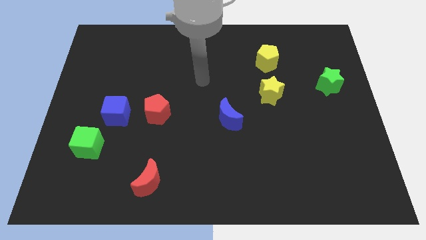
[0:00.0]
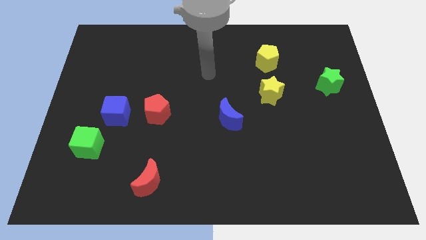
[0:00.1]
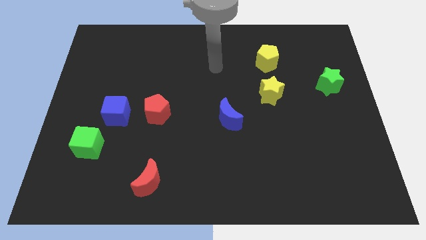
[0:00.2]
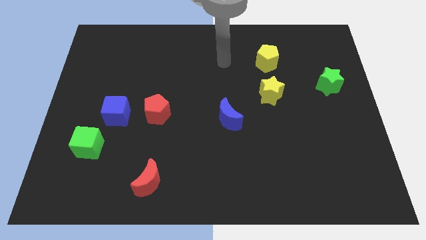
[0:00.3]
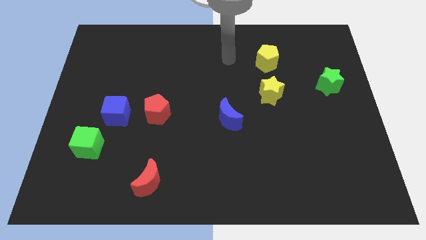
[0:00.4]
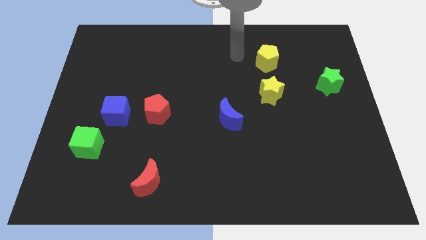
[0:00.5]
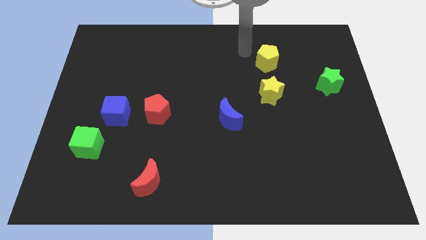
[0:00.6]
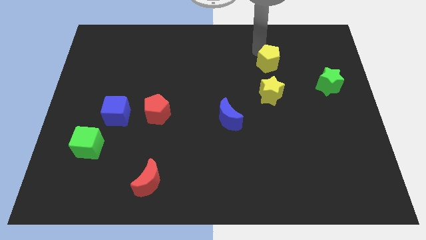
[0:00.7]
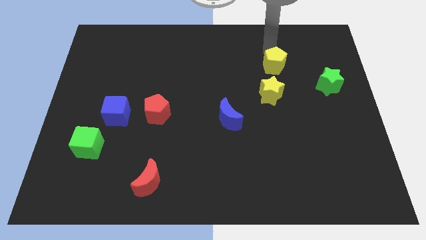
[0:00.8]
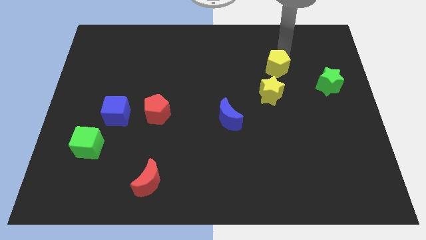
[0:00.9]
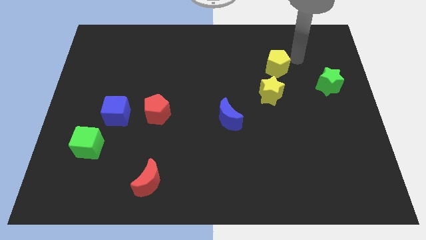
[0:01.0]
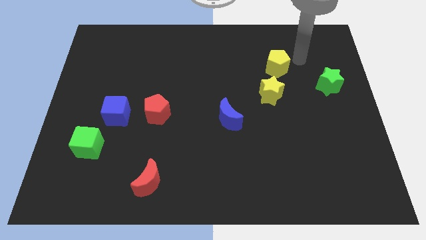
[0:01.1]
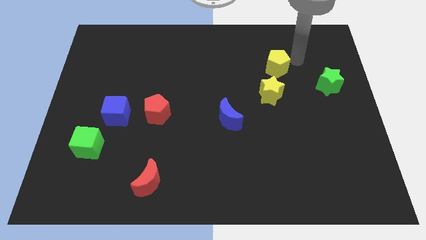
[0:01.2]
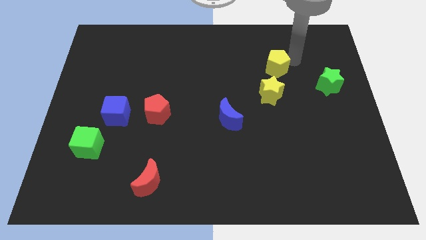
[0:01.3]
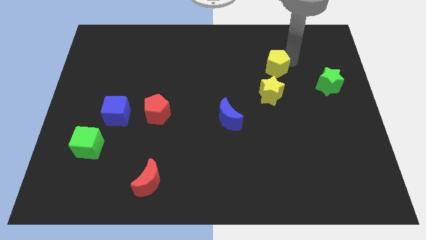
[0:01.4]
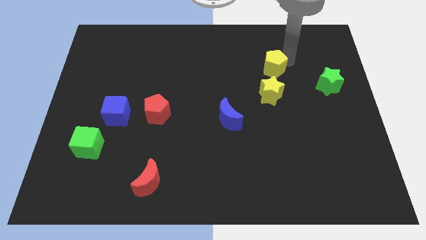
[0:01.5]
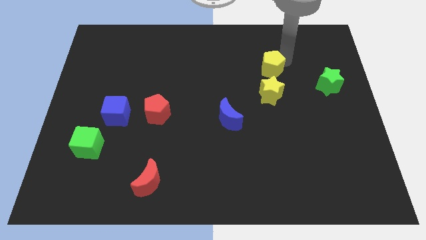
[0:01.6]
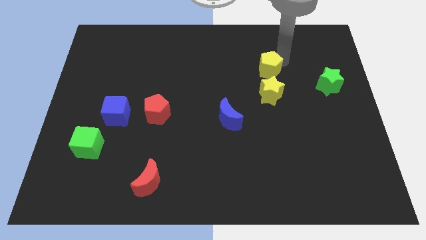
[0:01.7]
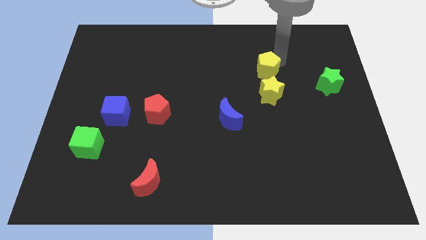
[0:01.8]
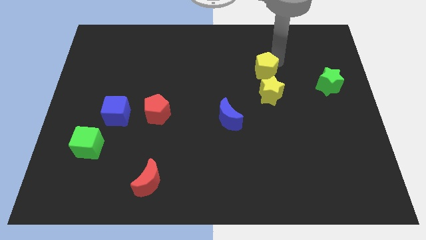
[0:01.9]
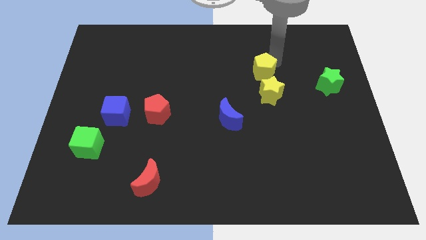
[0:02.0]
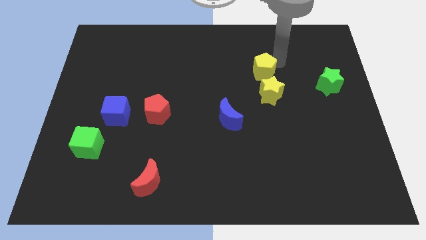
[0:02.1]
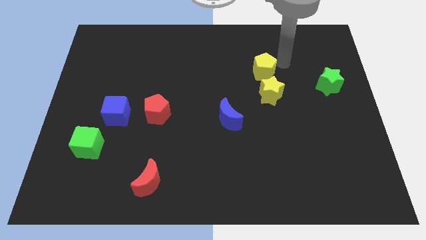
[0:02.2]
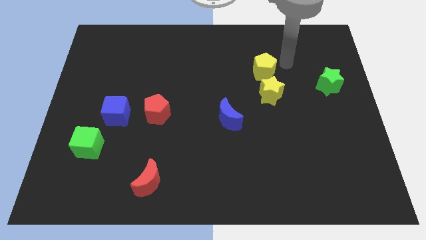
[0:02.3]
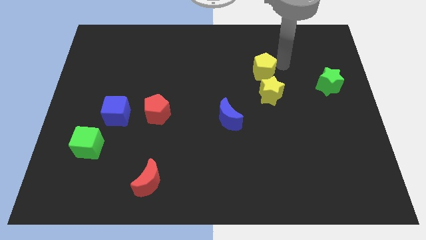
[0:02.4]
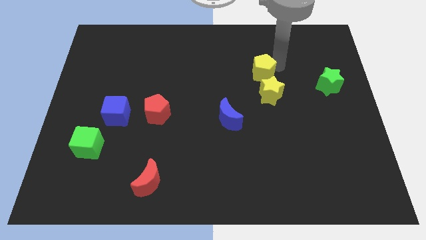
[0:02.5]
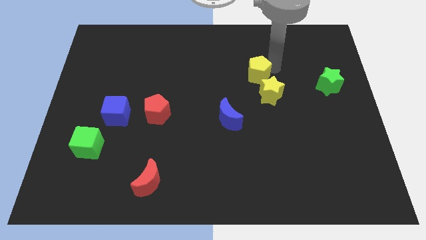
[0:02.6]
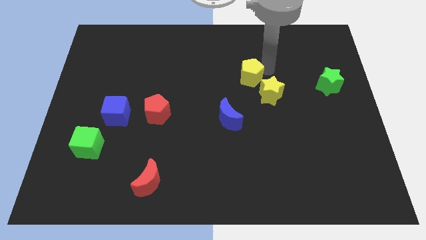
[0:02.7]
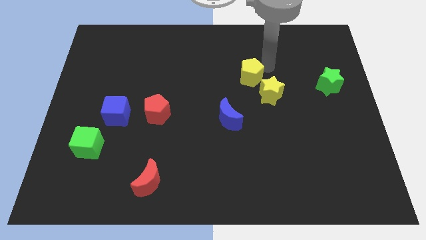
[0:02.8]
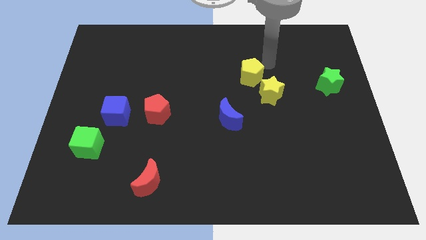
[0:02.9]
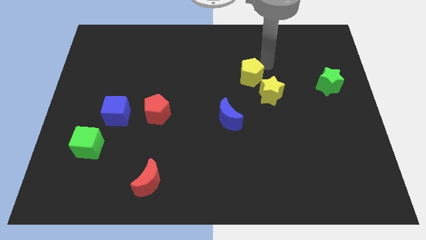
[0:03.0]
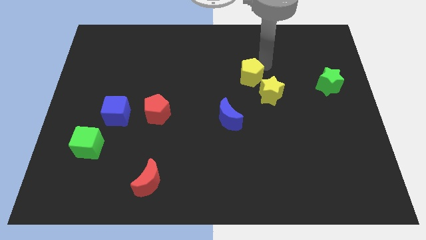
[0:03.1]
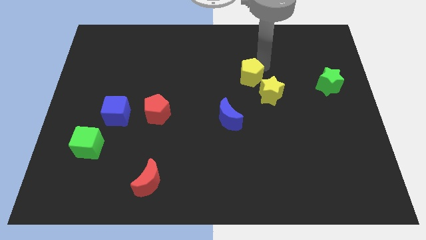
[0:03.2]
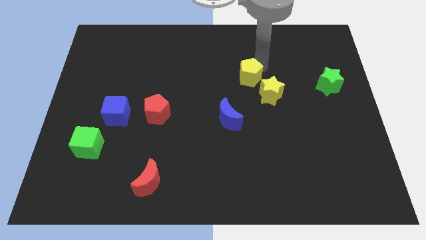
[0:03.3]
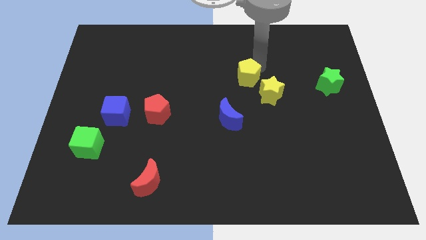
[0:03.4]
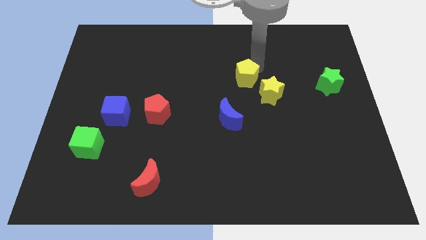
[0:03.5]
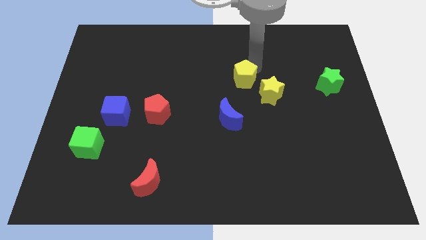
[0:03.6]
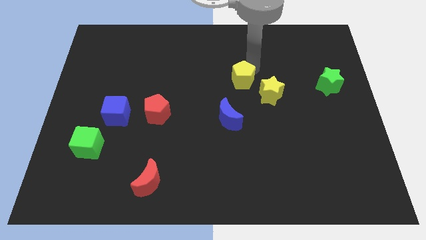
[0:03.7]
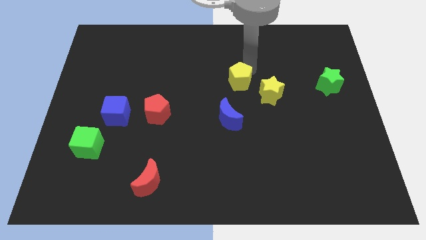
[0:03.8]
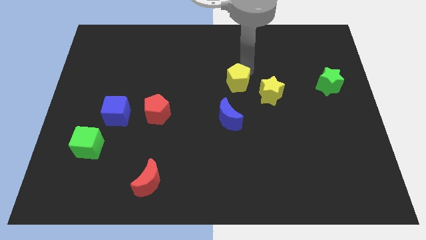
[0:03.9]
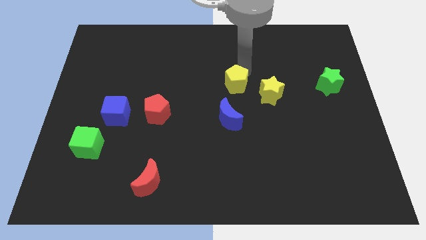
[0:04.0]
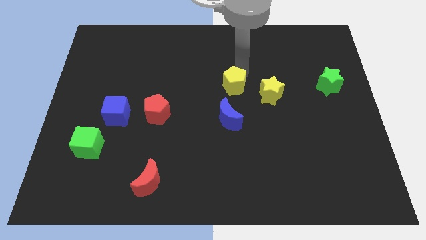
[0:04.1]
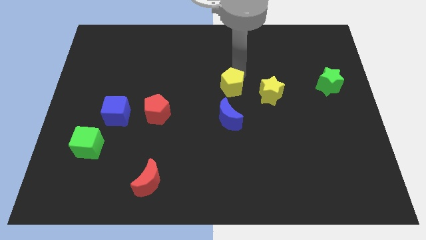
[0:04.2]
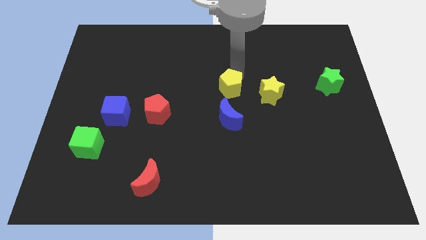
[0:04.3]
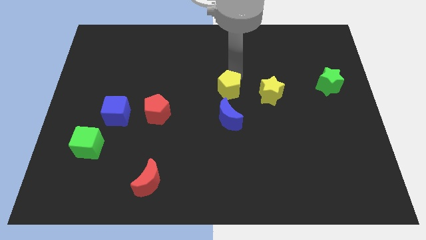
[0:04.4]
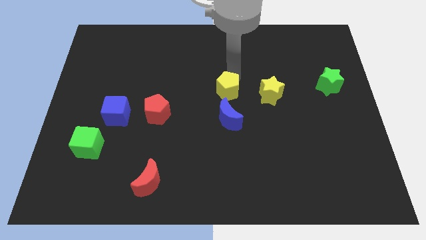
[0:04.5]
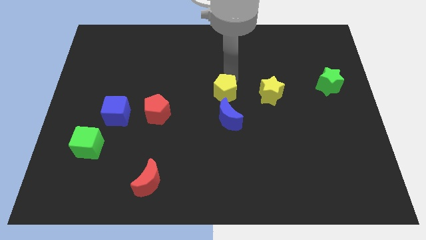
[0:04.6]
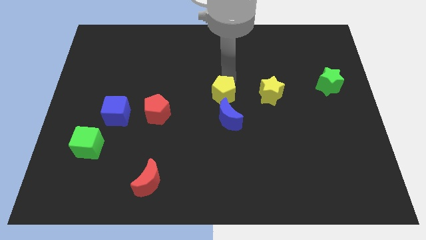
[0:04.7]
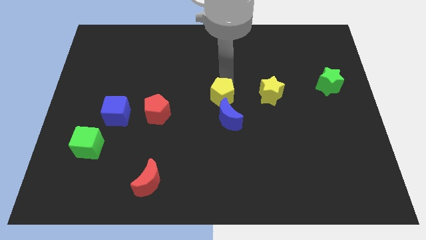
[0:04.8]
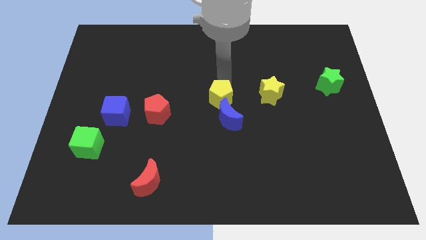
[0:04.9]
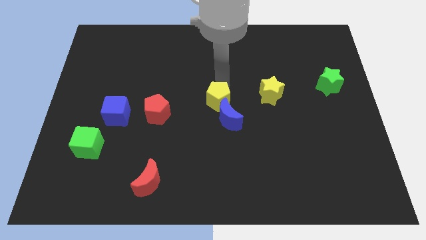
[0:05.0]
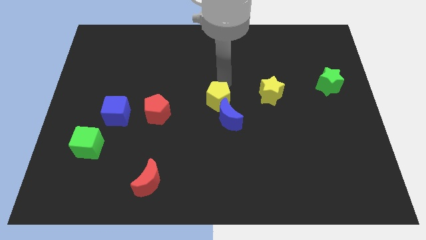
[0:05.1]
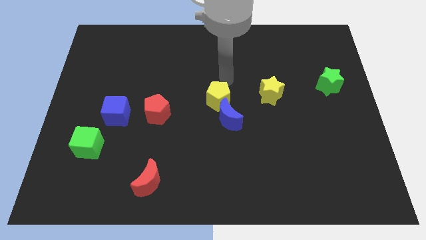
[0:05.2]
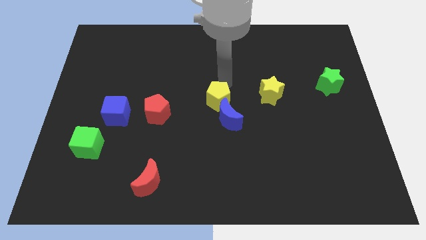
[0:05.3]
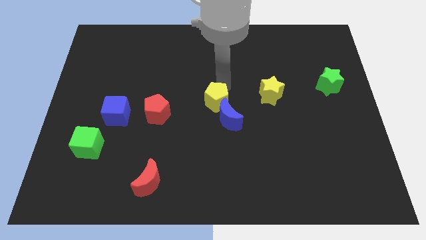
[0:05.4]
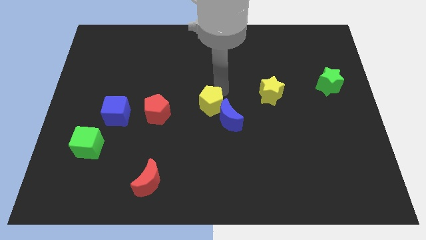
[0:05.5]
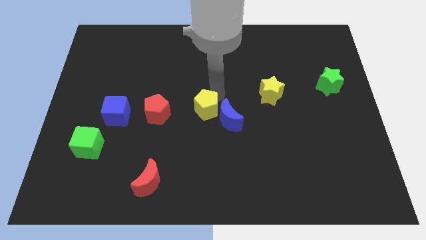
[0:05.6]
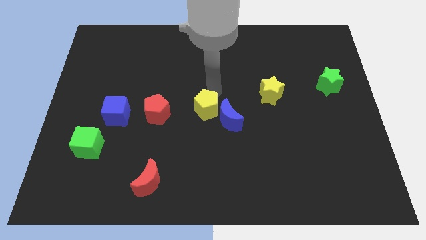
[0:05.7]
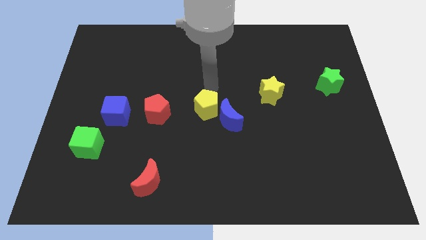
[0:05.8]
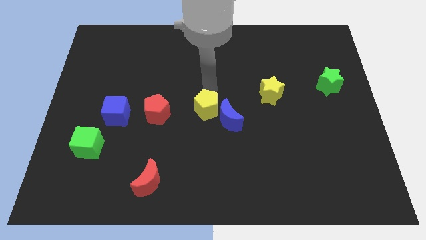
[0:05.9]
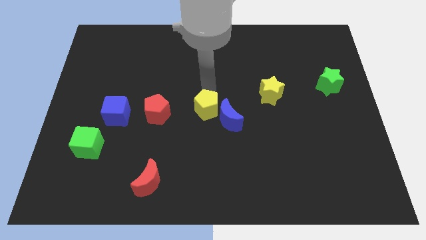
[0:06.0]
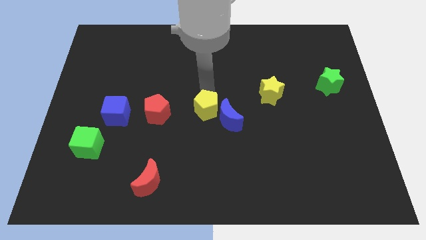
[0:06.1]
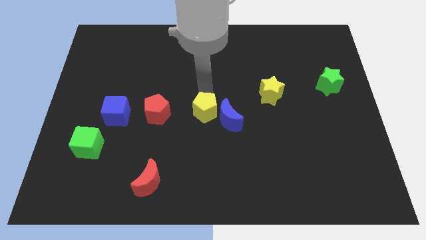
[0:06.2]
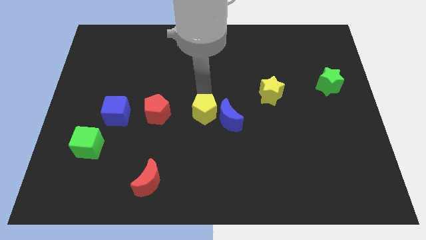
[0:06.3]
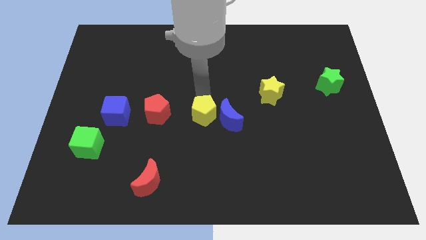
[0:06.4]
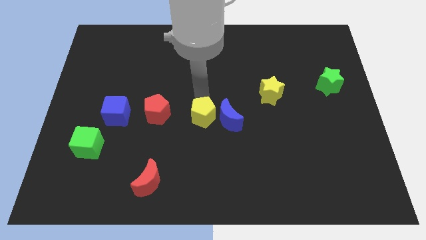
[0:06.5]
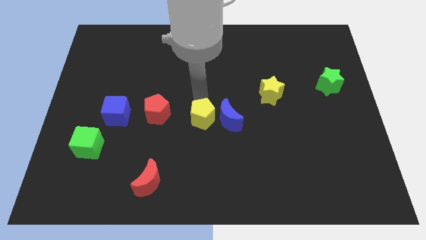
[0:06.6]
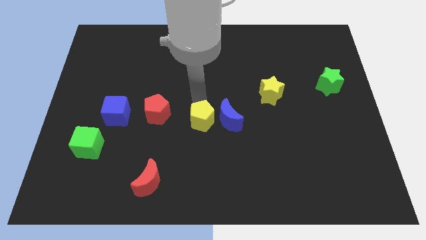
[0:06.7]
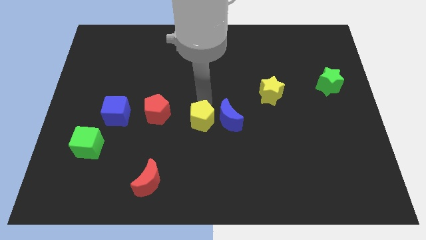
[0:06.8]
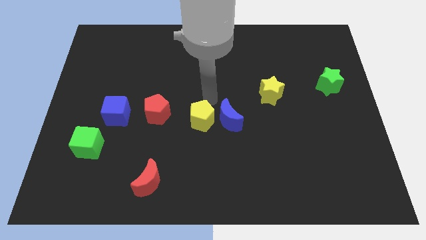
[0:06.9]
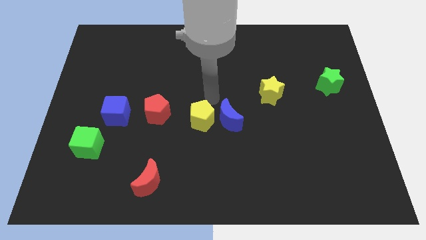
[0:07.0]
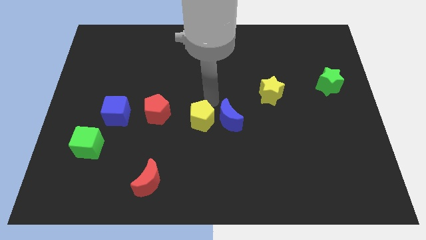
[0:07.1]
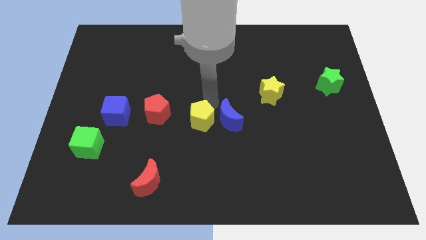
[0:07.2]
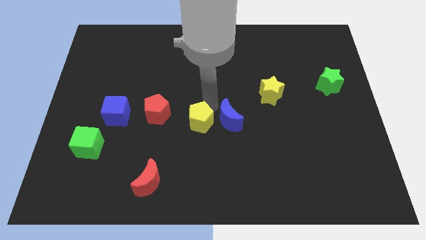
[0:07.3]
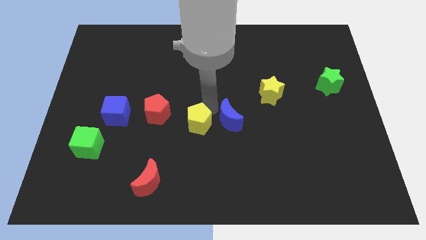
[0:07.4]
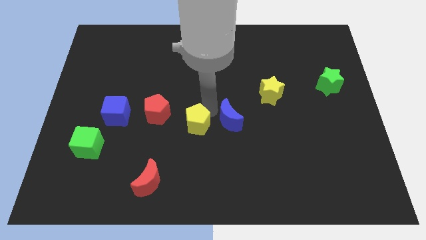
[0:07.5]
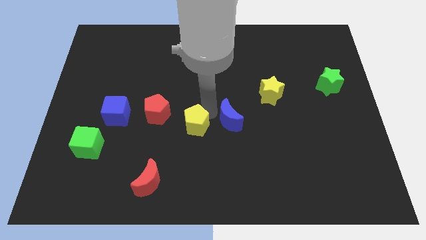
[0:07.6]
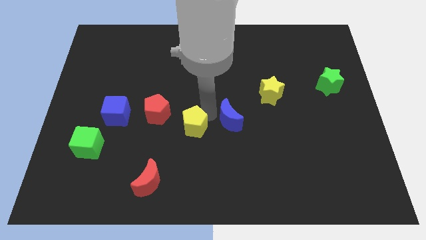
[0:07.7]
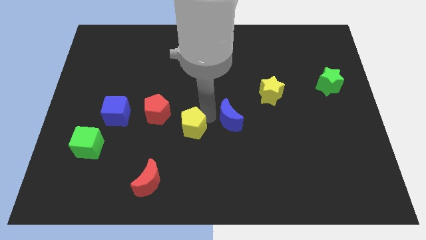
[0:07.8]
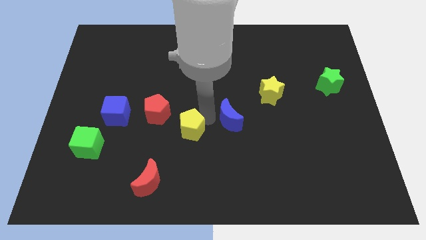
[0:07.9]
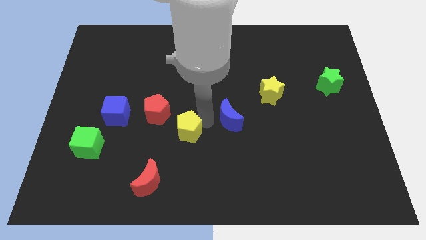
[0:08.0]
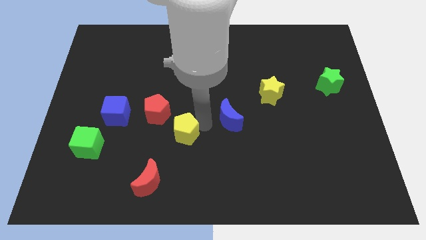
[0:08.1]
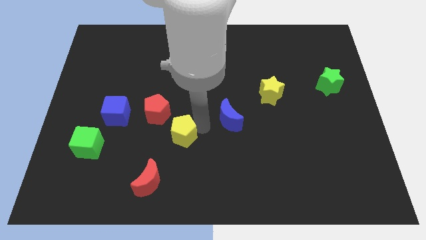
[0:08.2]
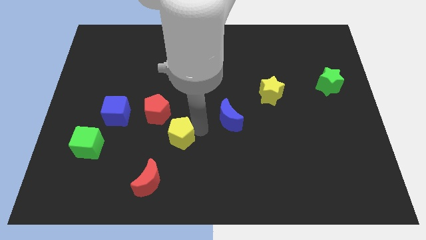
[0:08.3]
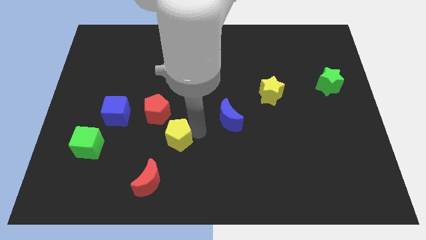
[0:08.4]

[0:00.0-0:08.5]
put the yellow pentagon diagonally up and to the right of the red moon

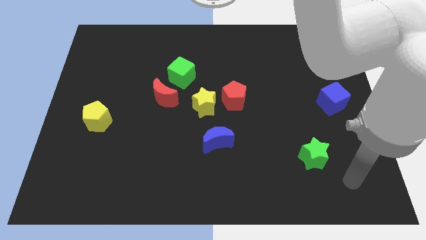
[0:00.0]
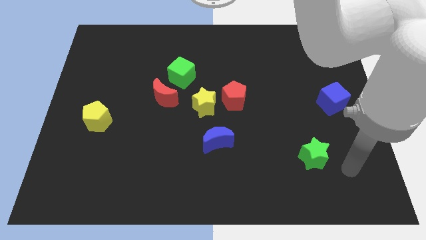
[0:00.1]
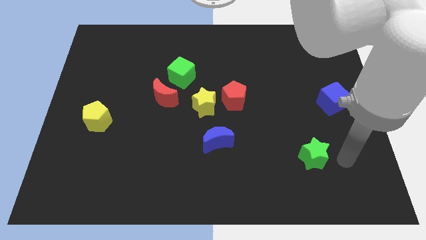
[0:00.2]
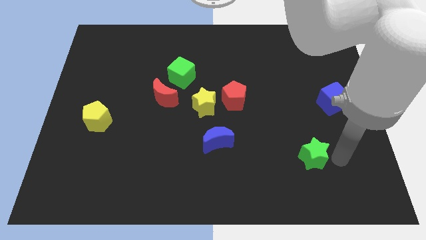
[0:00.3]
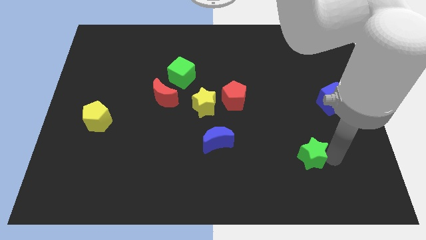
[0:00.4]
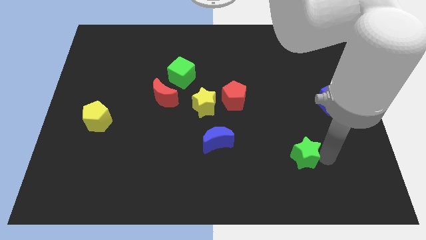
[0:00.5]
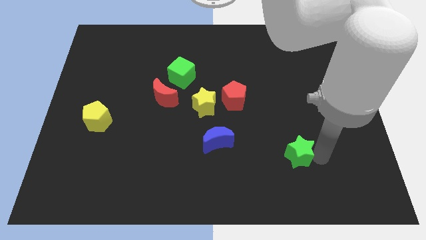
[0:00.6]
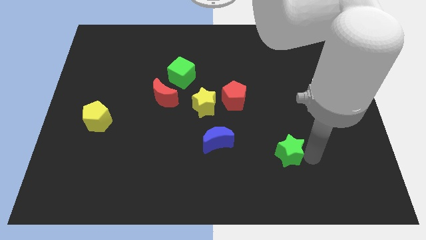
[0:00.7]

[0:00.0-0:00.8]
push the green star just right of the blue moon
